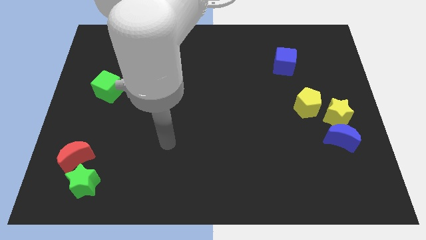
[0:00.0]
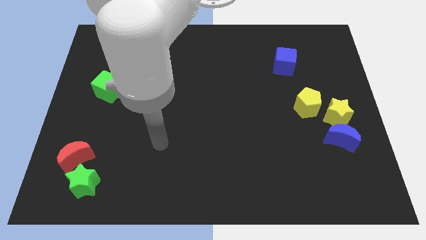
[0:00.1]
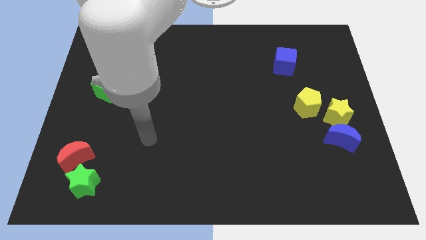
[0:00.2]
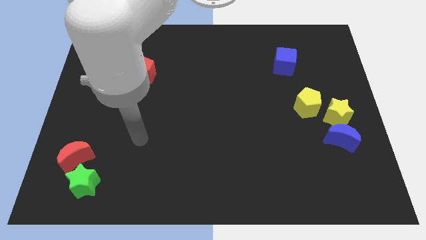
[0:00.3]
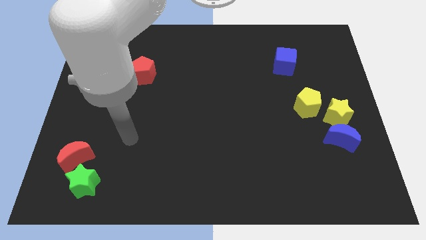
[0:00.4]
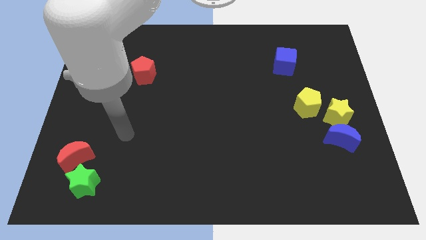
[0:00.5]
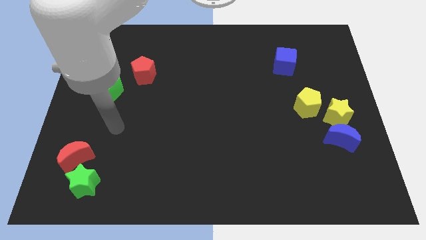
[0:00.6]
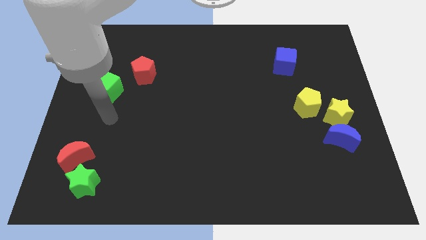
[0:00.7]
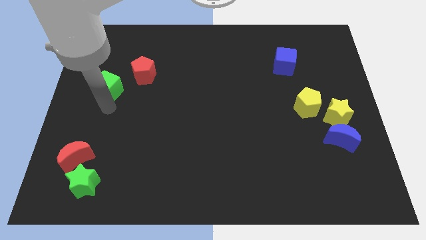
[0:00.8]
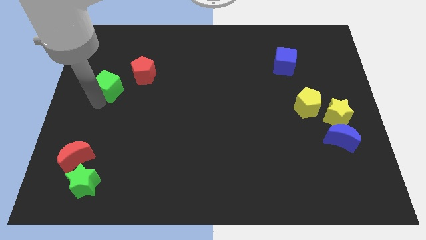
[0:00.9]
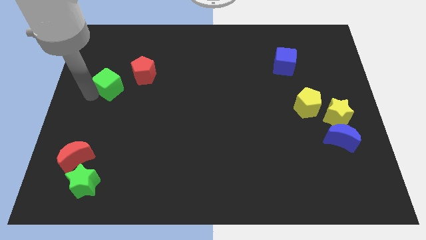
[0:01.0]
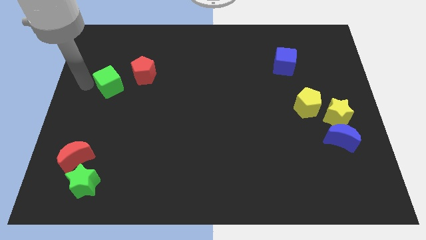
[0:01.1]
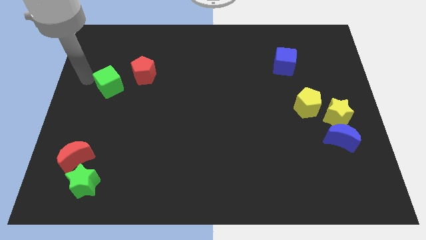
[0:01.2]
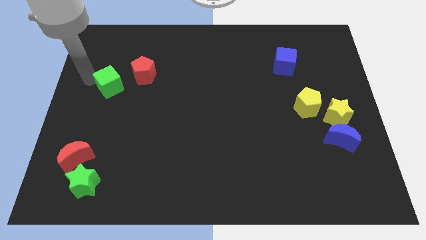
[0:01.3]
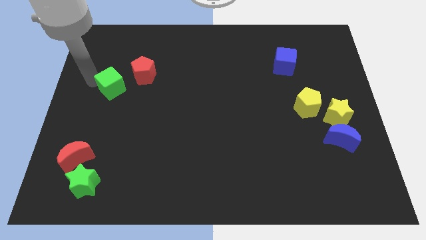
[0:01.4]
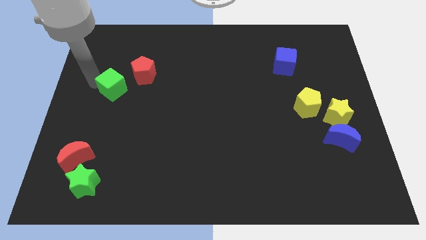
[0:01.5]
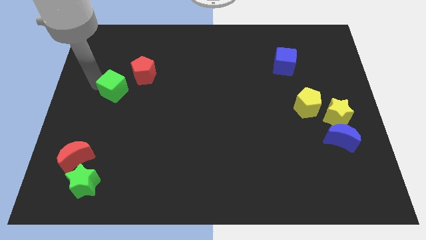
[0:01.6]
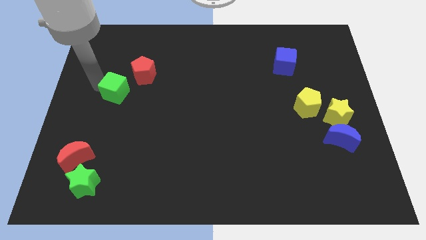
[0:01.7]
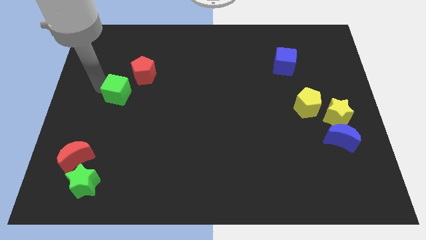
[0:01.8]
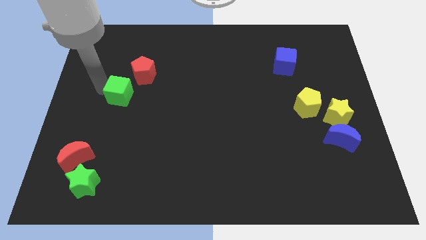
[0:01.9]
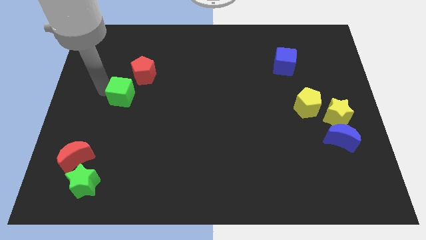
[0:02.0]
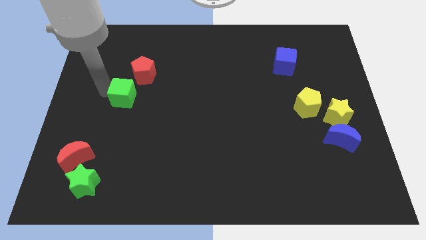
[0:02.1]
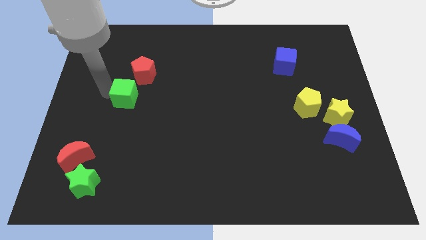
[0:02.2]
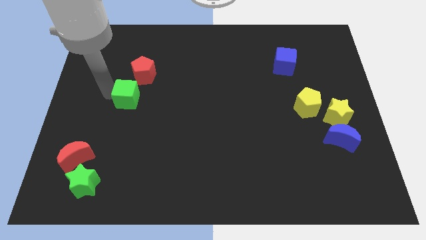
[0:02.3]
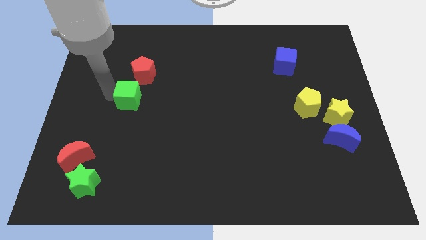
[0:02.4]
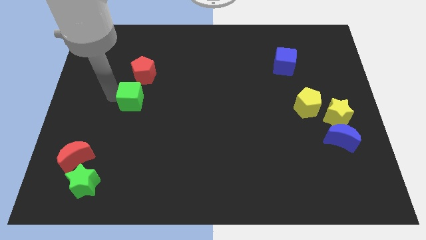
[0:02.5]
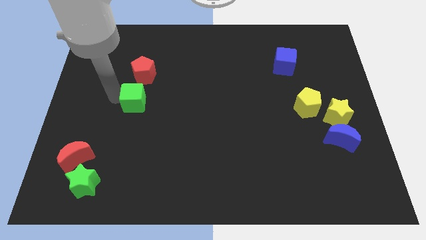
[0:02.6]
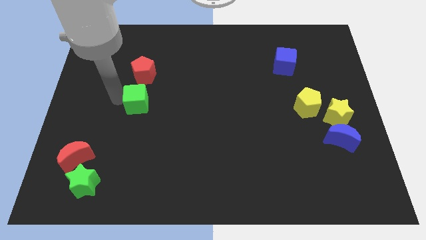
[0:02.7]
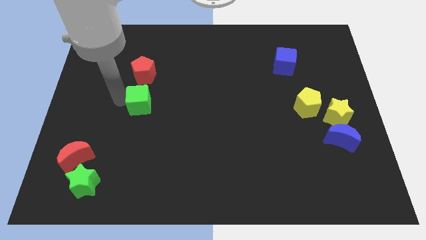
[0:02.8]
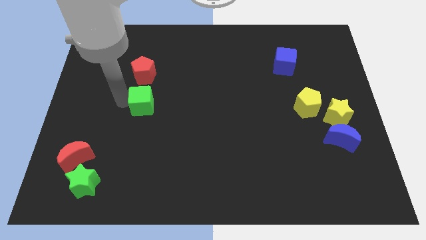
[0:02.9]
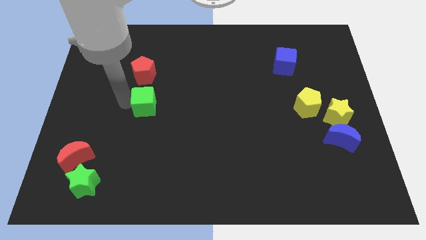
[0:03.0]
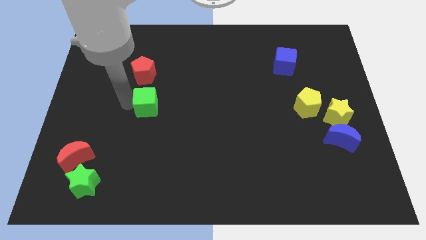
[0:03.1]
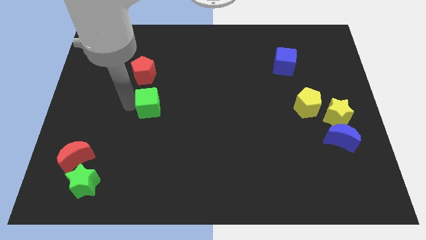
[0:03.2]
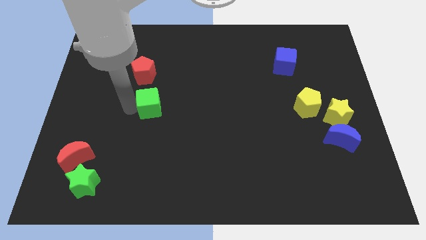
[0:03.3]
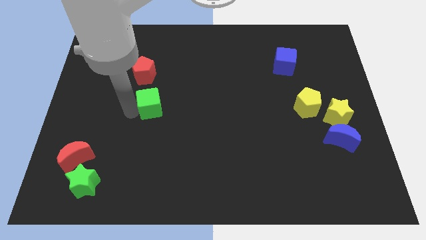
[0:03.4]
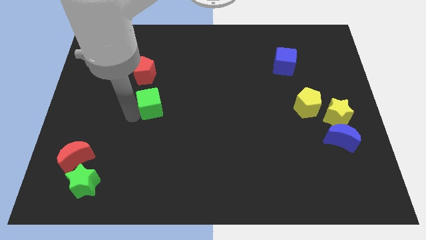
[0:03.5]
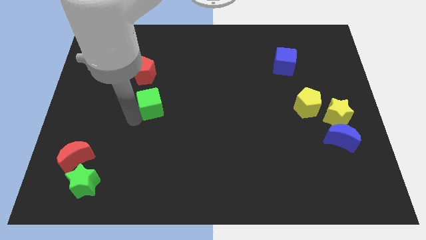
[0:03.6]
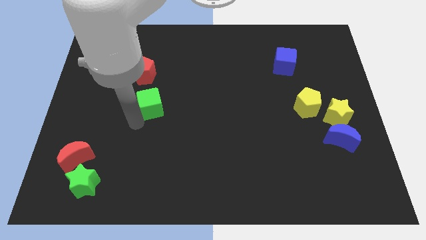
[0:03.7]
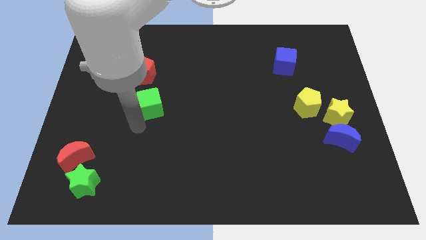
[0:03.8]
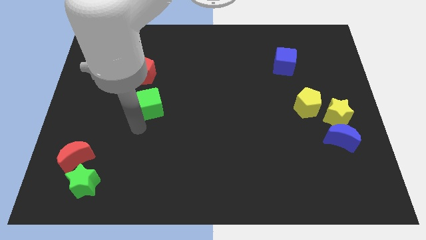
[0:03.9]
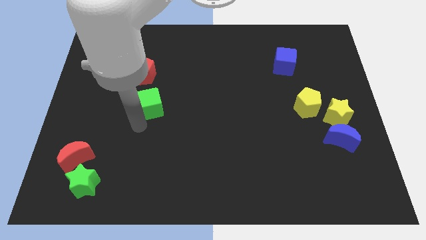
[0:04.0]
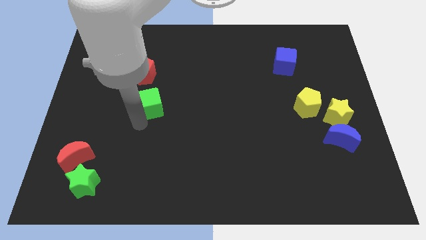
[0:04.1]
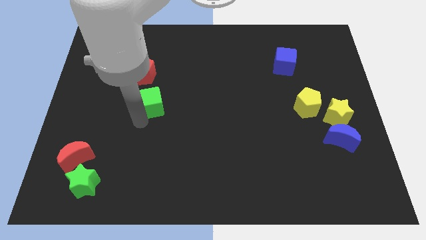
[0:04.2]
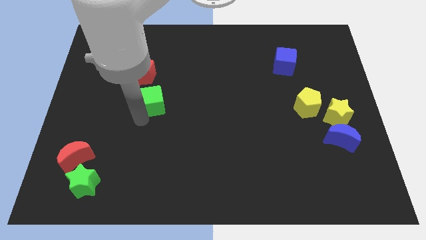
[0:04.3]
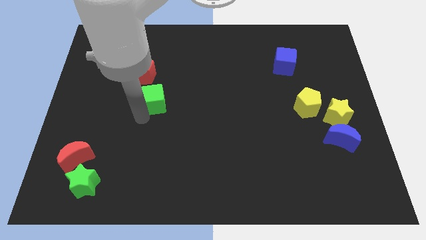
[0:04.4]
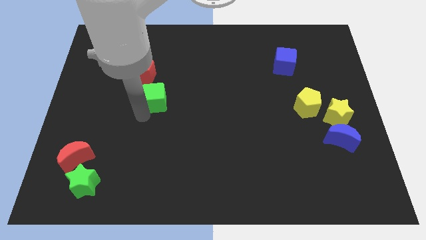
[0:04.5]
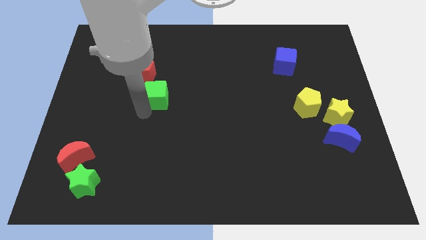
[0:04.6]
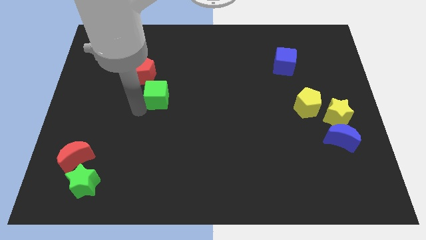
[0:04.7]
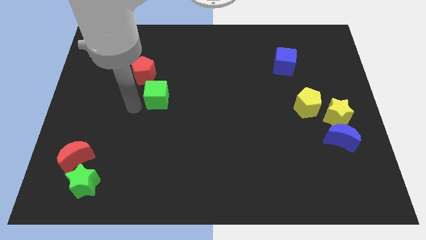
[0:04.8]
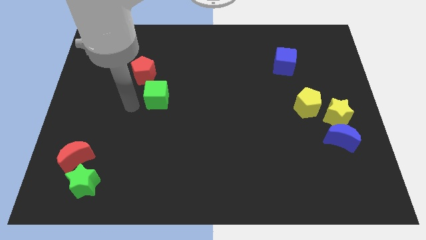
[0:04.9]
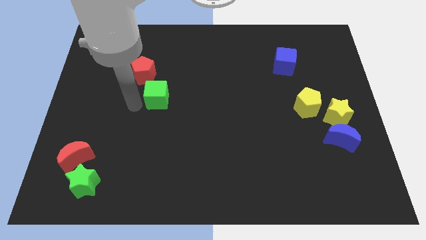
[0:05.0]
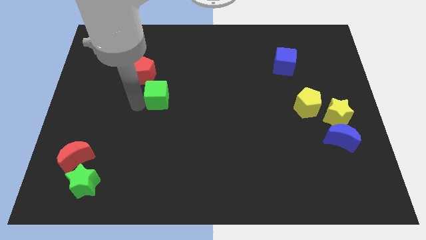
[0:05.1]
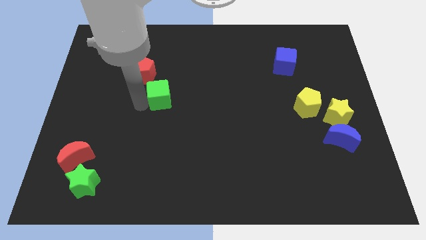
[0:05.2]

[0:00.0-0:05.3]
move the green cube to the center

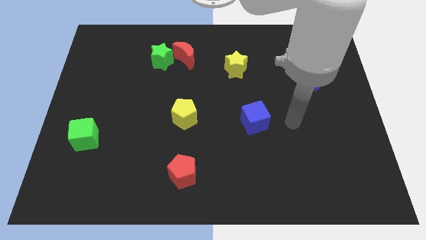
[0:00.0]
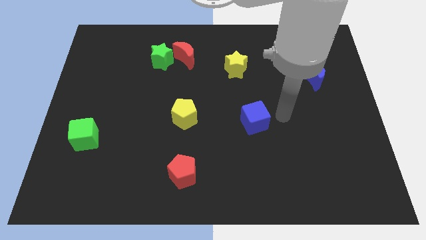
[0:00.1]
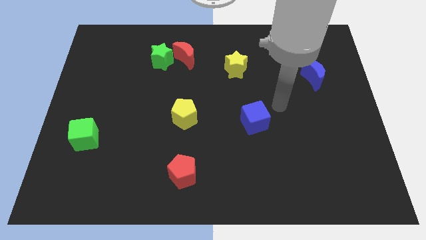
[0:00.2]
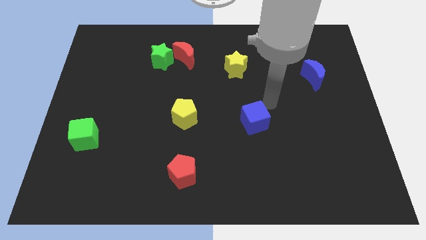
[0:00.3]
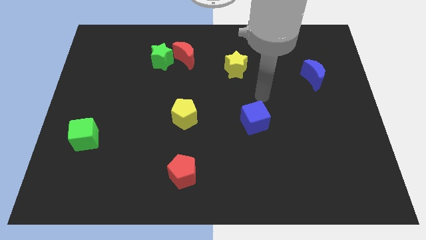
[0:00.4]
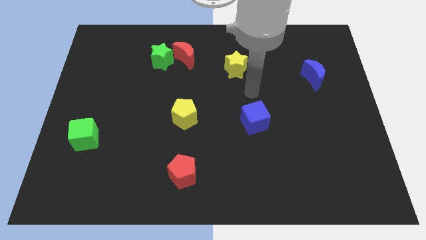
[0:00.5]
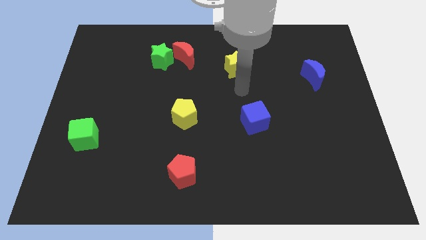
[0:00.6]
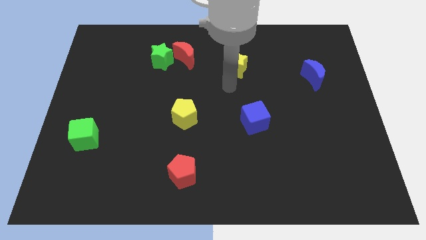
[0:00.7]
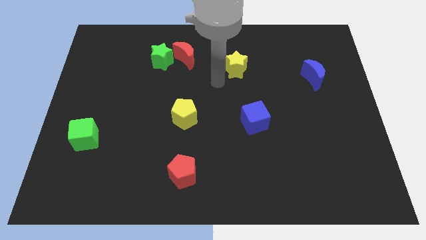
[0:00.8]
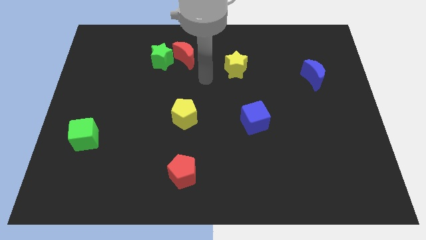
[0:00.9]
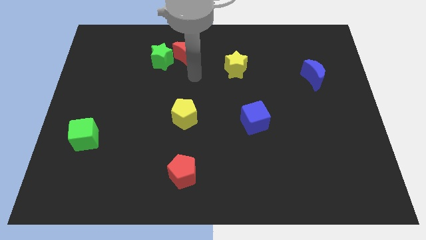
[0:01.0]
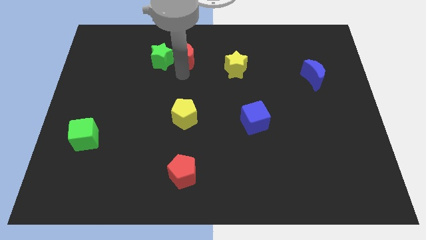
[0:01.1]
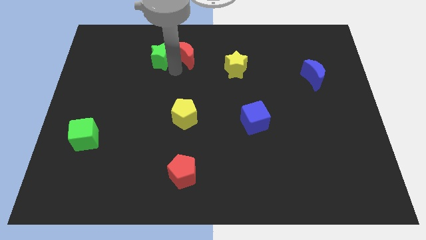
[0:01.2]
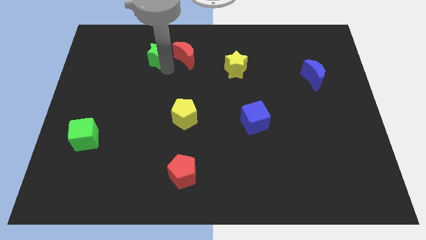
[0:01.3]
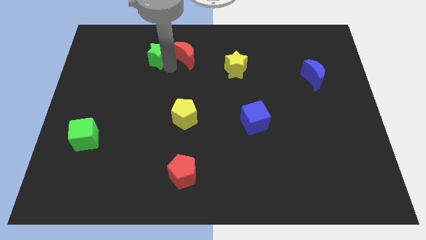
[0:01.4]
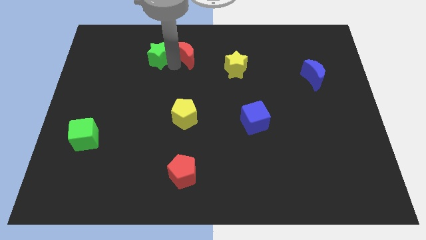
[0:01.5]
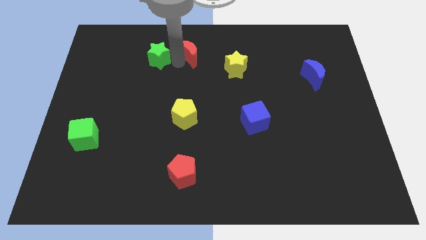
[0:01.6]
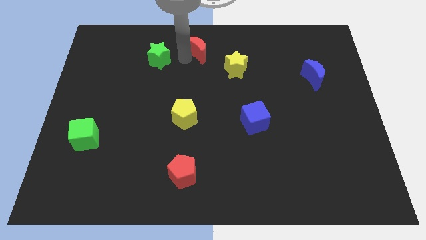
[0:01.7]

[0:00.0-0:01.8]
push the red moon to the towards your base

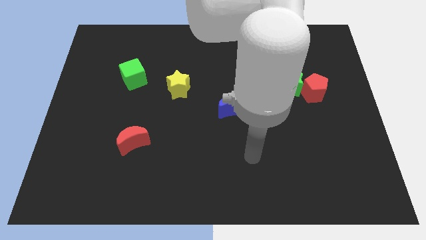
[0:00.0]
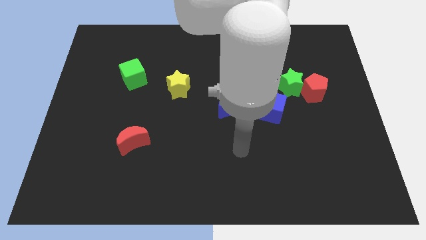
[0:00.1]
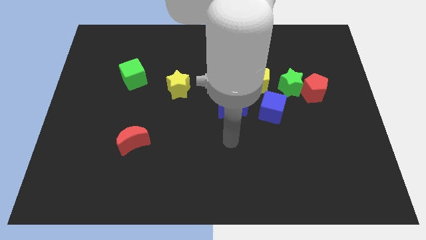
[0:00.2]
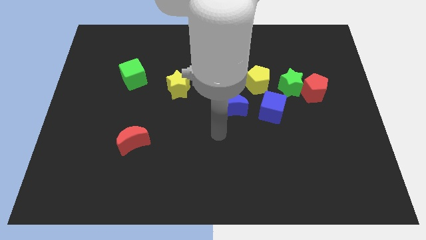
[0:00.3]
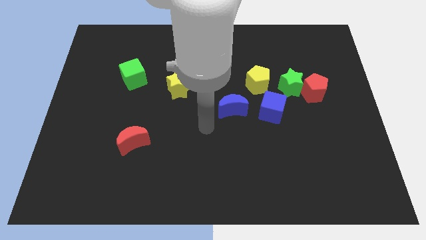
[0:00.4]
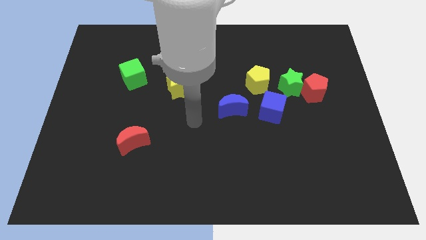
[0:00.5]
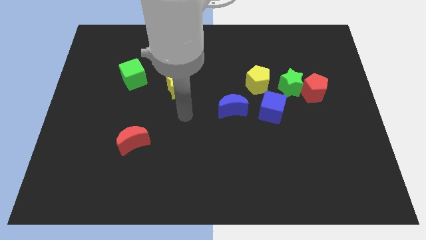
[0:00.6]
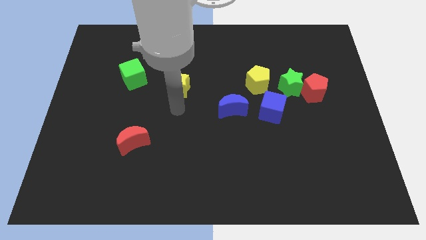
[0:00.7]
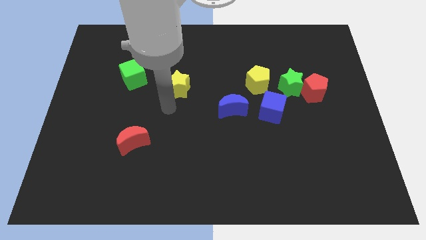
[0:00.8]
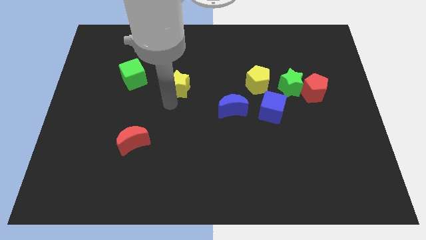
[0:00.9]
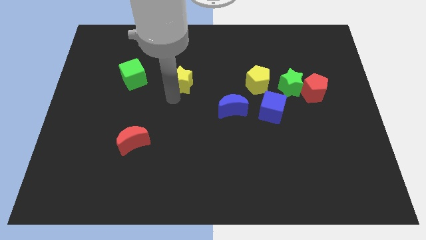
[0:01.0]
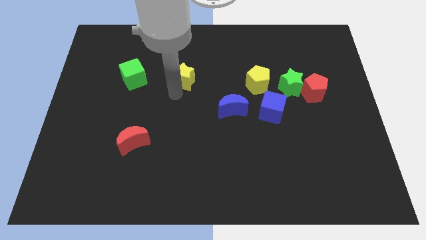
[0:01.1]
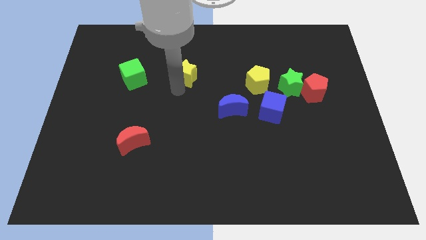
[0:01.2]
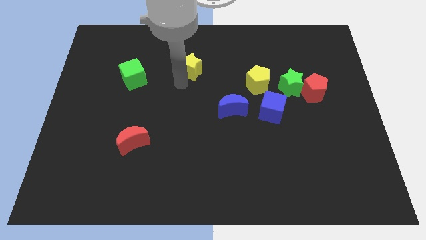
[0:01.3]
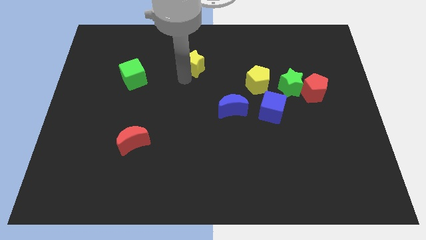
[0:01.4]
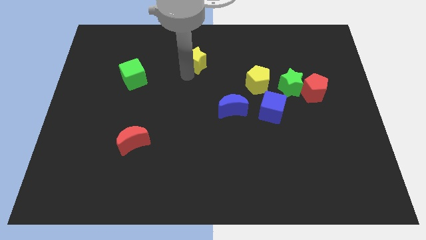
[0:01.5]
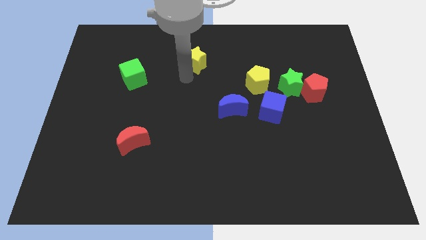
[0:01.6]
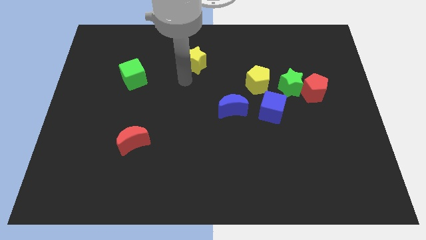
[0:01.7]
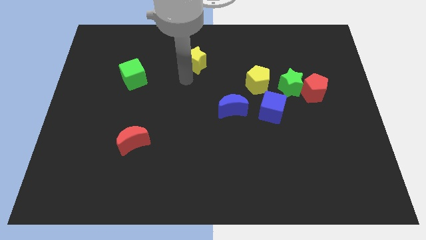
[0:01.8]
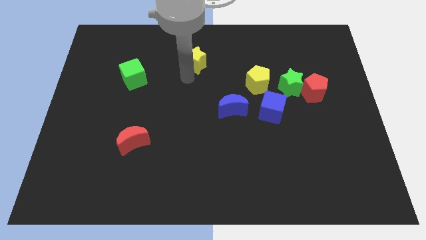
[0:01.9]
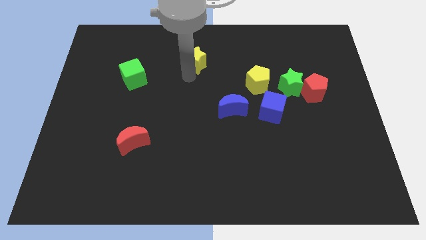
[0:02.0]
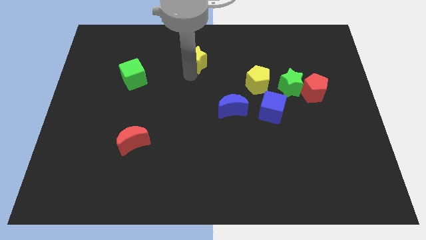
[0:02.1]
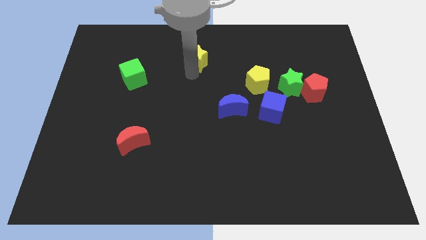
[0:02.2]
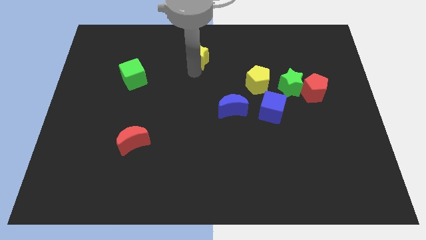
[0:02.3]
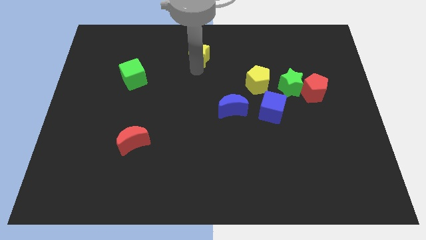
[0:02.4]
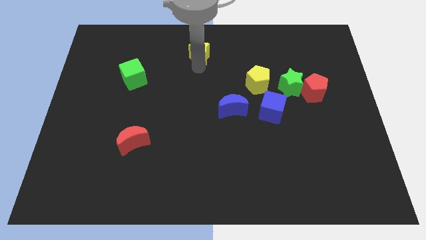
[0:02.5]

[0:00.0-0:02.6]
move the yellow star to the top side
